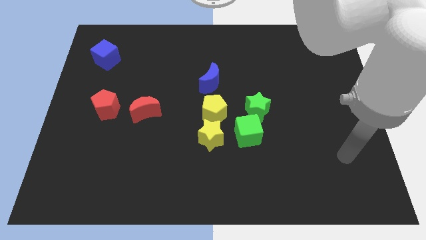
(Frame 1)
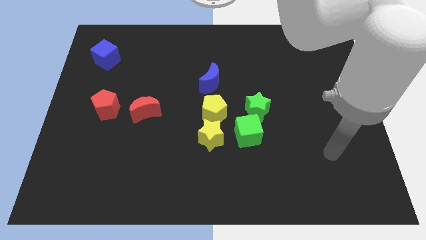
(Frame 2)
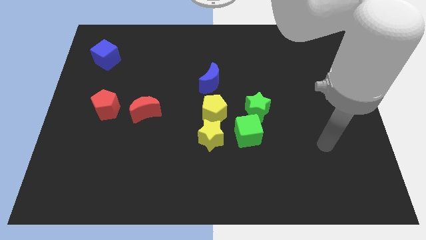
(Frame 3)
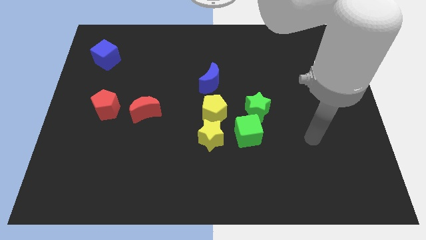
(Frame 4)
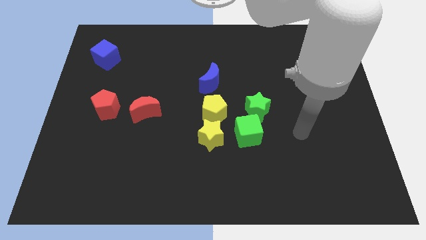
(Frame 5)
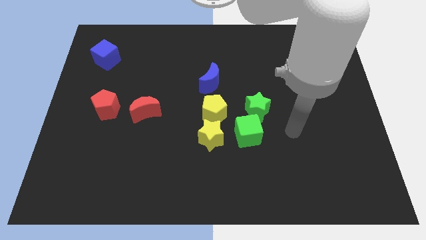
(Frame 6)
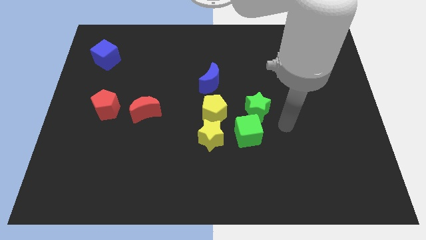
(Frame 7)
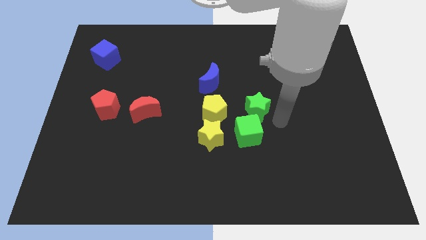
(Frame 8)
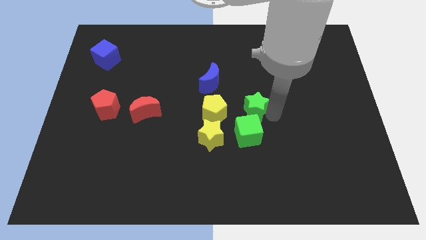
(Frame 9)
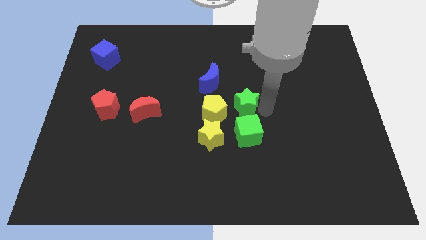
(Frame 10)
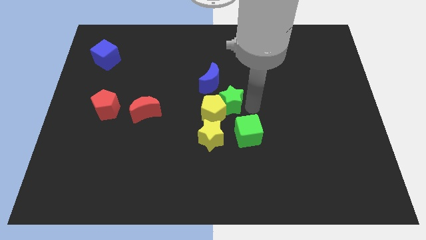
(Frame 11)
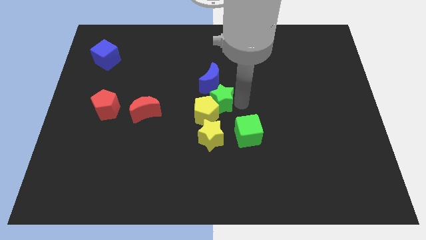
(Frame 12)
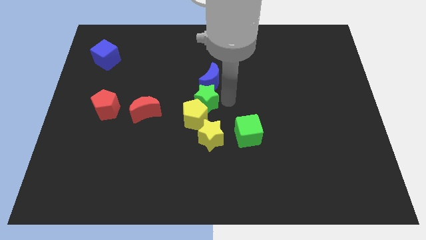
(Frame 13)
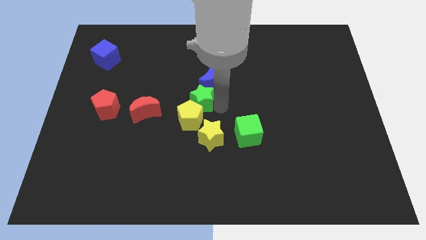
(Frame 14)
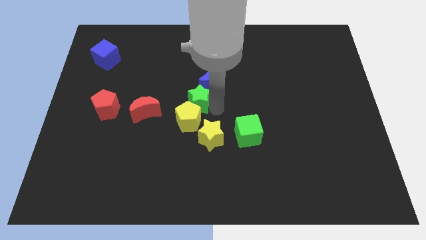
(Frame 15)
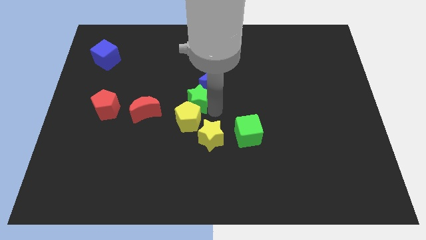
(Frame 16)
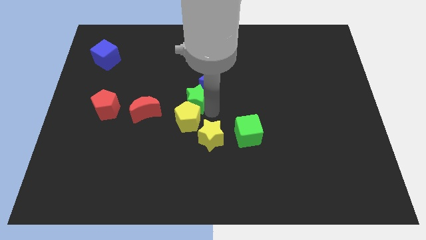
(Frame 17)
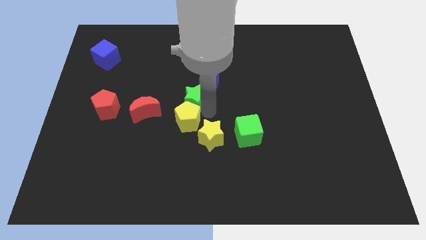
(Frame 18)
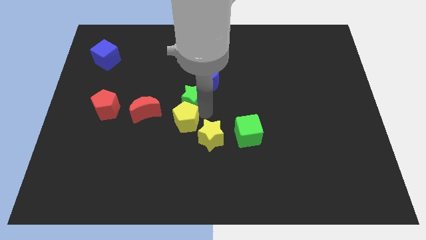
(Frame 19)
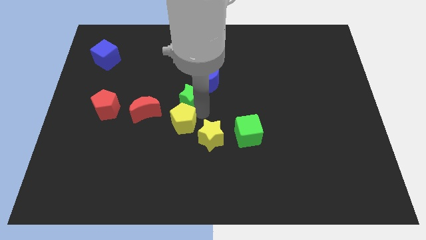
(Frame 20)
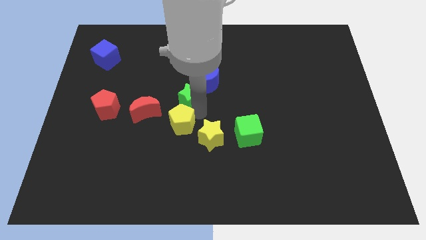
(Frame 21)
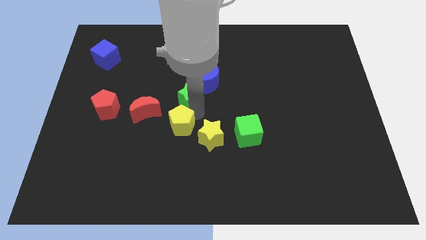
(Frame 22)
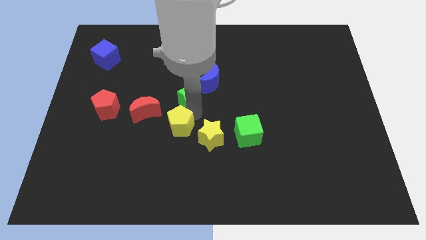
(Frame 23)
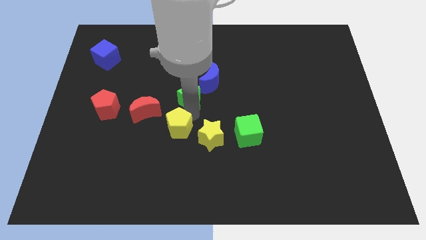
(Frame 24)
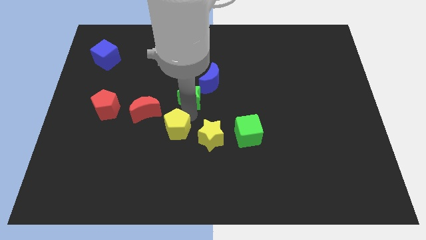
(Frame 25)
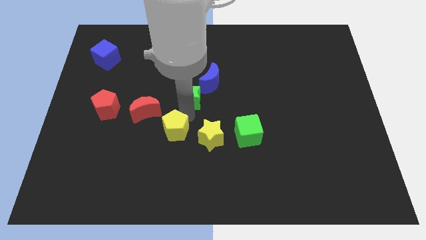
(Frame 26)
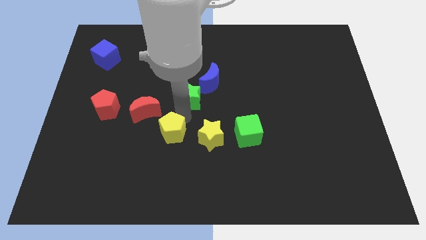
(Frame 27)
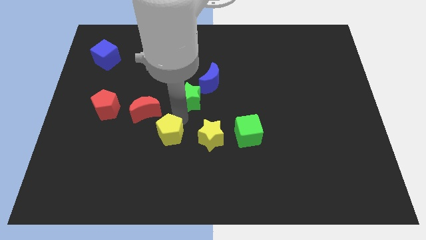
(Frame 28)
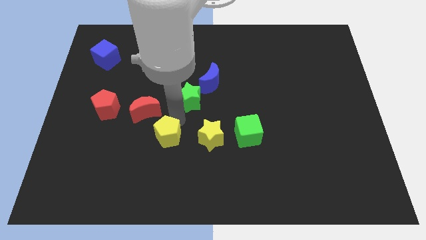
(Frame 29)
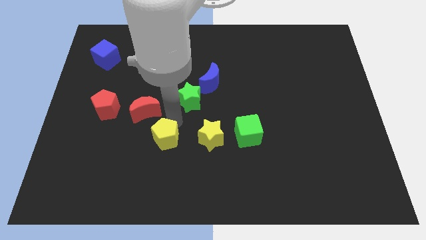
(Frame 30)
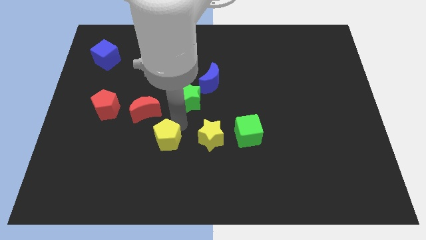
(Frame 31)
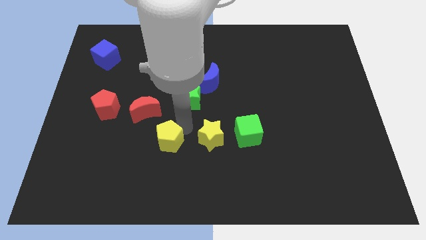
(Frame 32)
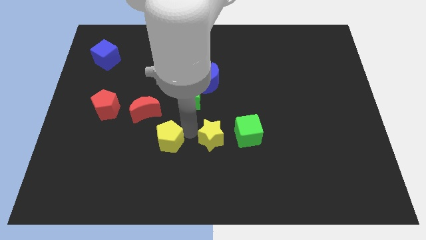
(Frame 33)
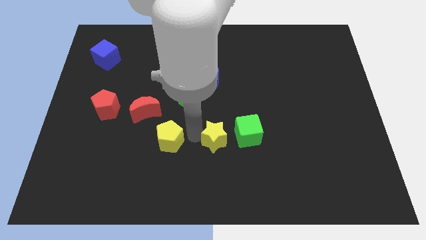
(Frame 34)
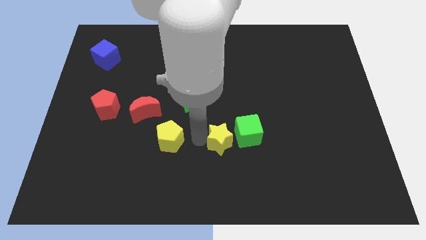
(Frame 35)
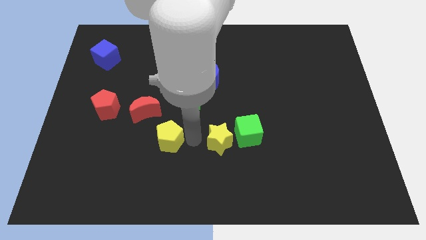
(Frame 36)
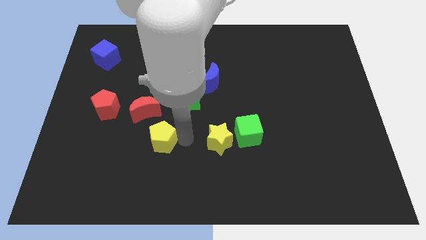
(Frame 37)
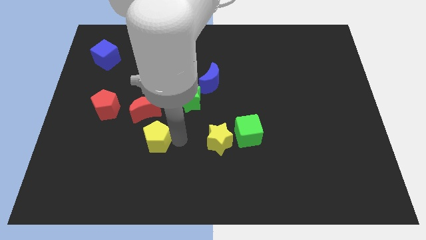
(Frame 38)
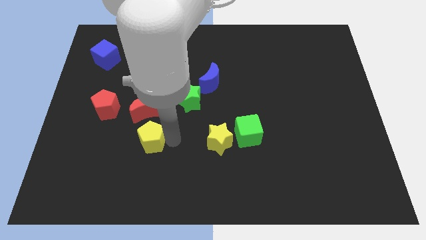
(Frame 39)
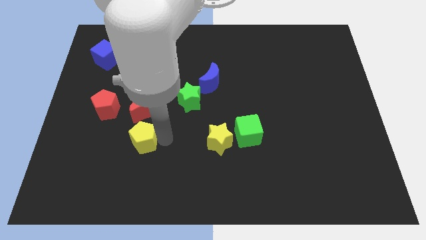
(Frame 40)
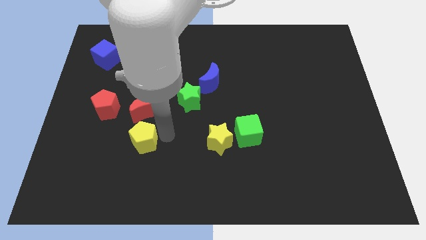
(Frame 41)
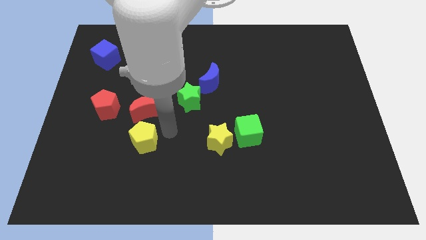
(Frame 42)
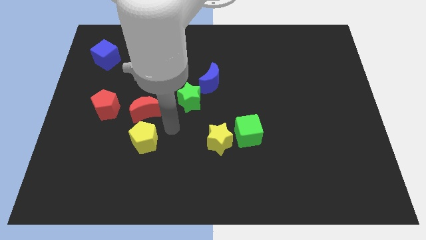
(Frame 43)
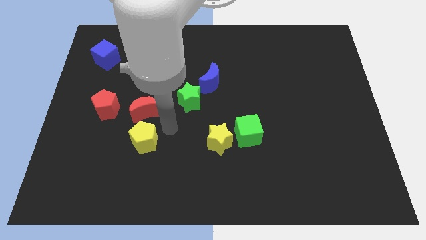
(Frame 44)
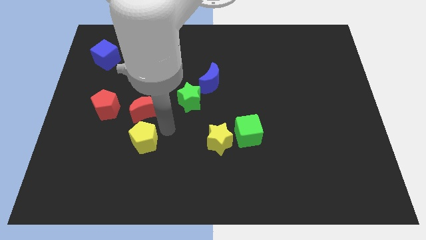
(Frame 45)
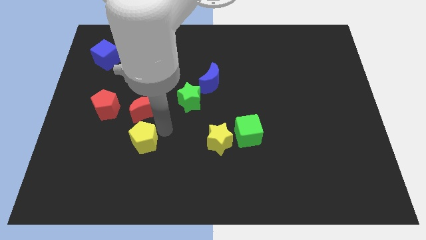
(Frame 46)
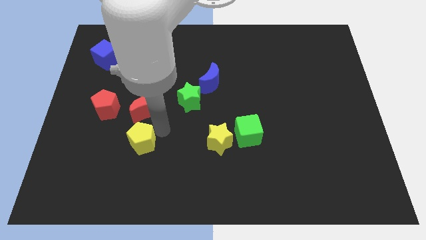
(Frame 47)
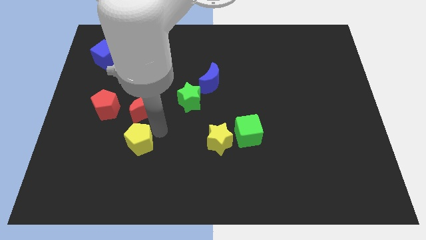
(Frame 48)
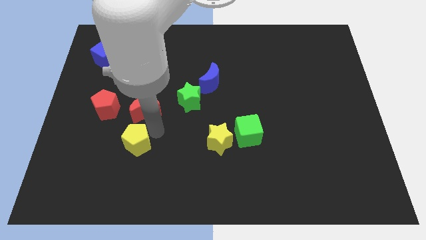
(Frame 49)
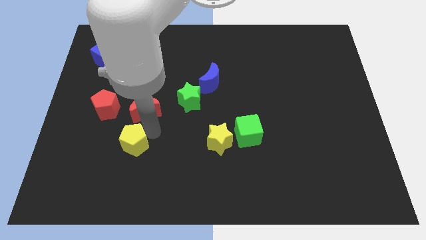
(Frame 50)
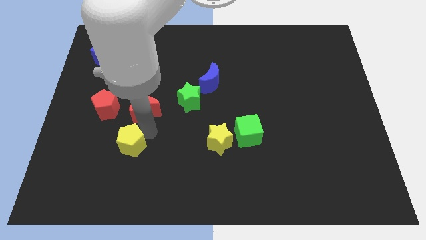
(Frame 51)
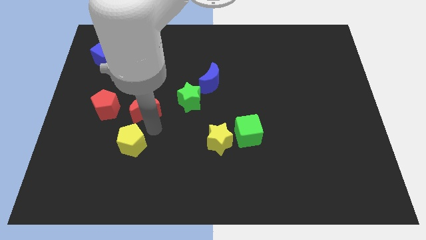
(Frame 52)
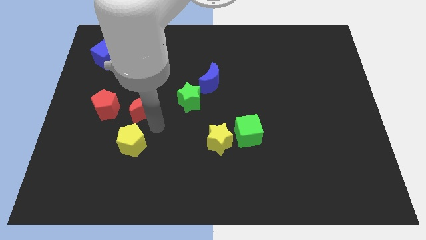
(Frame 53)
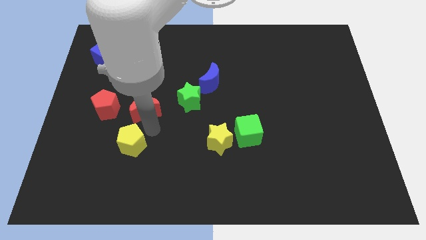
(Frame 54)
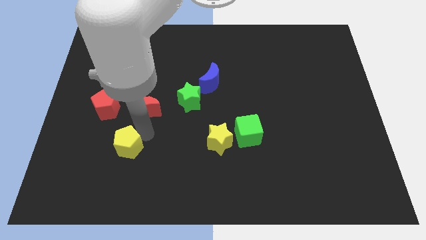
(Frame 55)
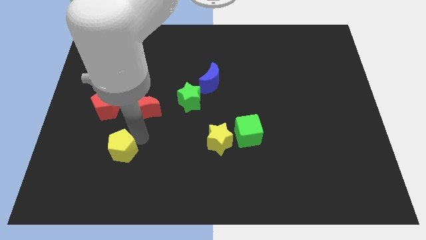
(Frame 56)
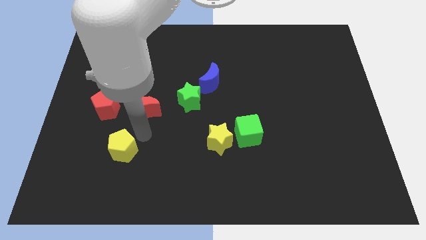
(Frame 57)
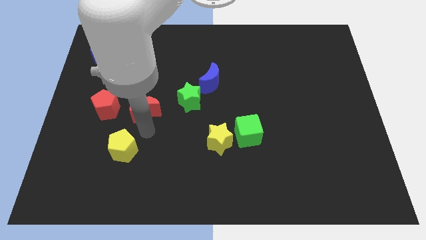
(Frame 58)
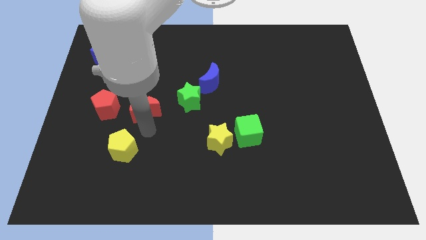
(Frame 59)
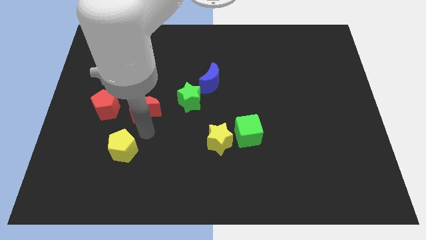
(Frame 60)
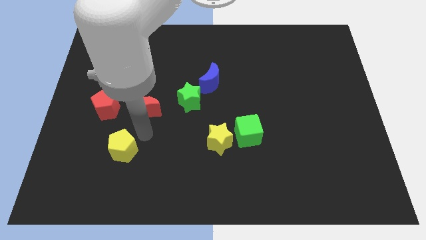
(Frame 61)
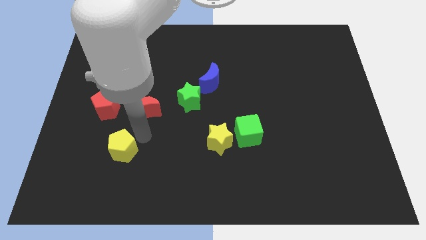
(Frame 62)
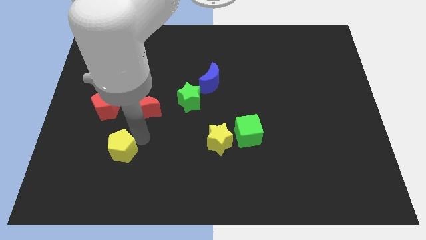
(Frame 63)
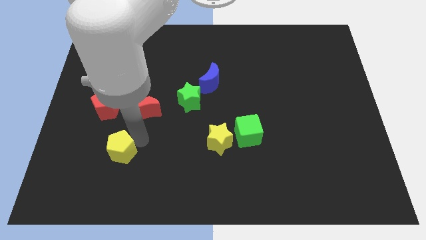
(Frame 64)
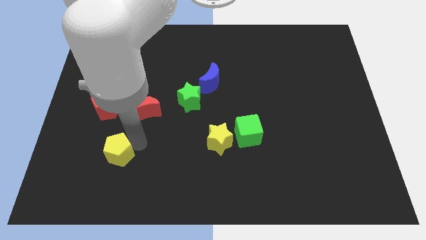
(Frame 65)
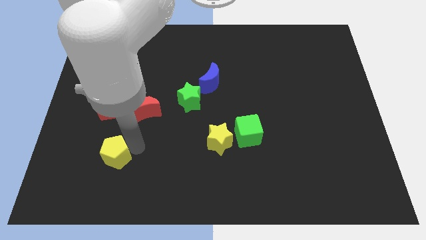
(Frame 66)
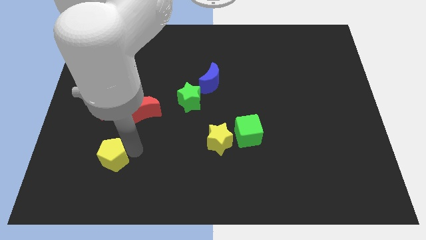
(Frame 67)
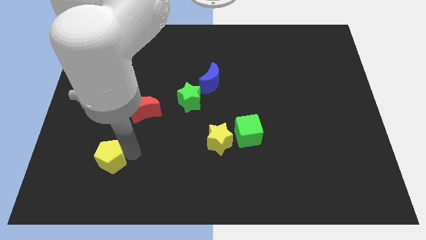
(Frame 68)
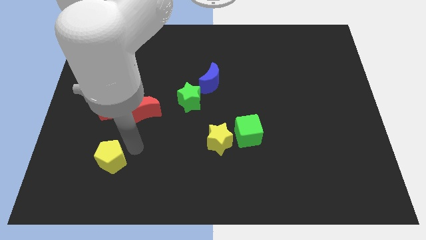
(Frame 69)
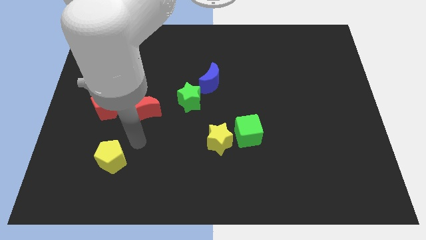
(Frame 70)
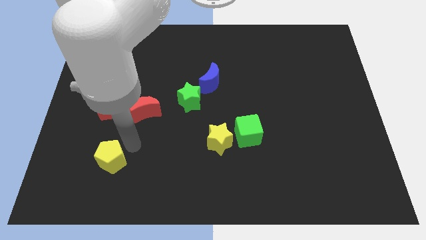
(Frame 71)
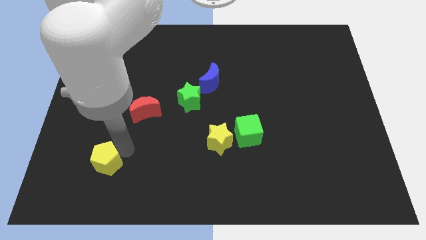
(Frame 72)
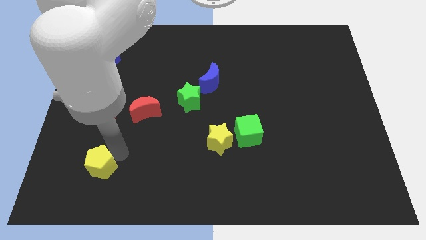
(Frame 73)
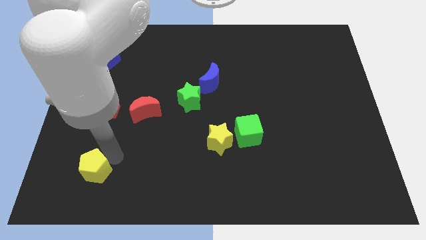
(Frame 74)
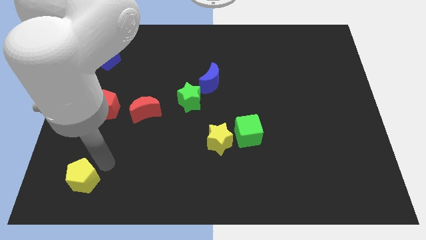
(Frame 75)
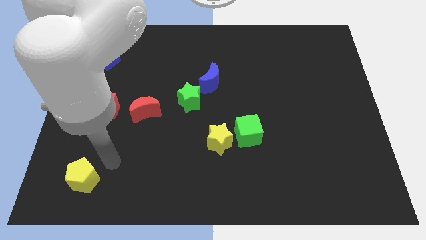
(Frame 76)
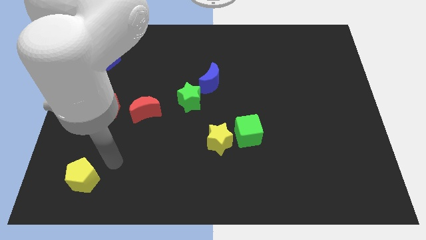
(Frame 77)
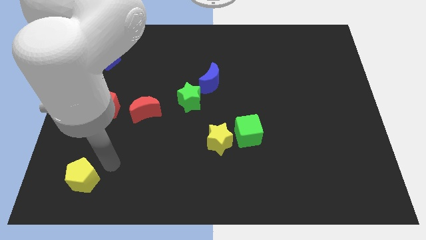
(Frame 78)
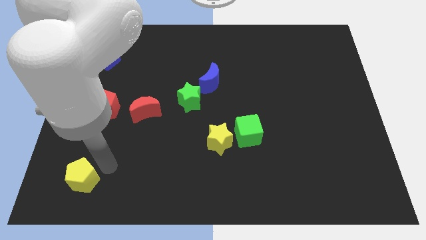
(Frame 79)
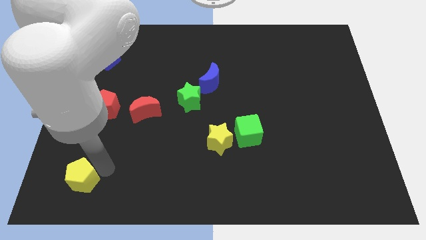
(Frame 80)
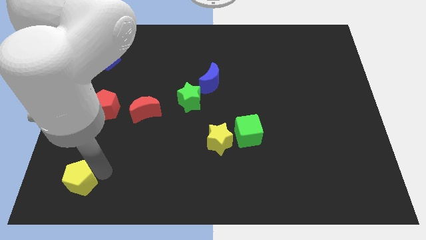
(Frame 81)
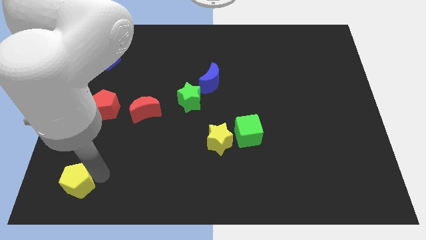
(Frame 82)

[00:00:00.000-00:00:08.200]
move the yellow pentagon to the bottom left corner
